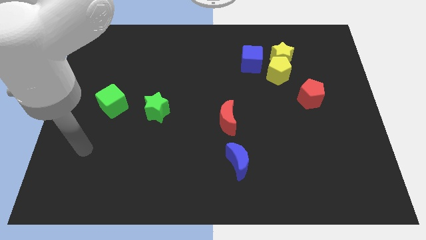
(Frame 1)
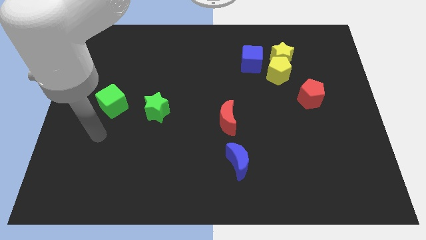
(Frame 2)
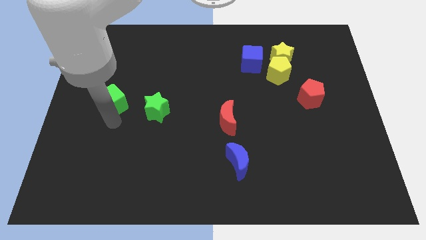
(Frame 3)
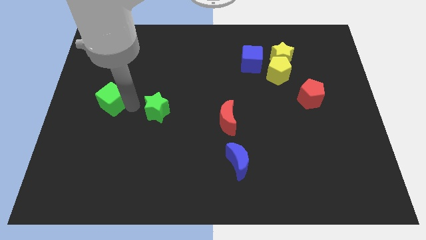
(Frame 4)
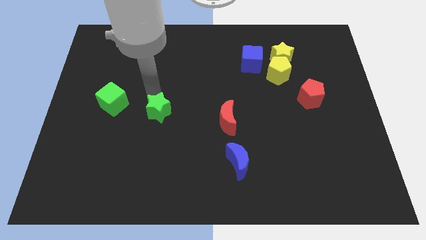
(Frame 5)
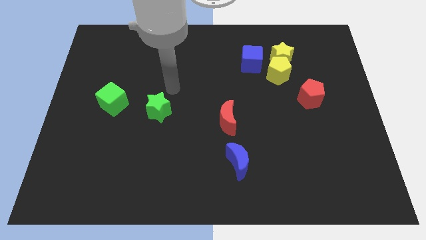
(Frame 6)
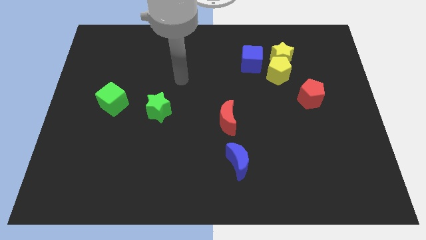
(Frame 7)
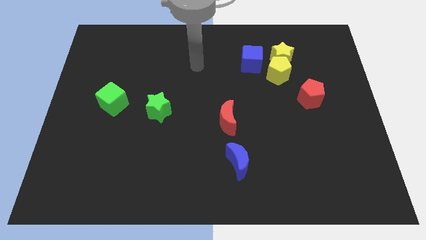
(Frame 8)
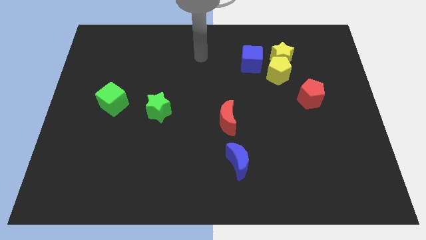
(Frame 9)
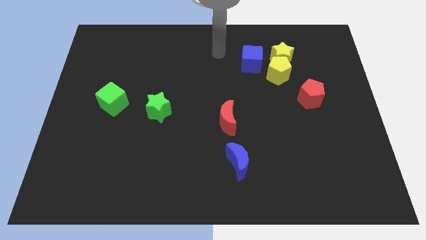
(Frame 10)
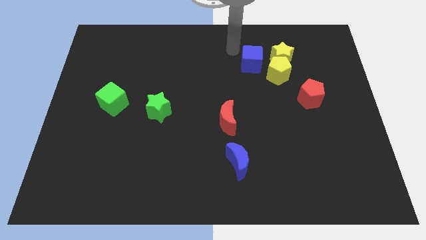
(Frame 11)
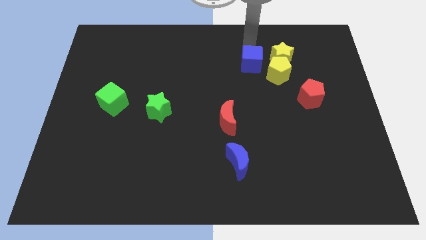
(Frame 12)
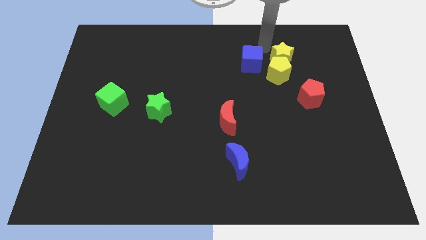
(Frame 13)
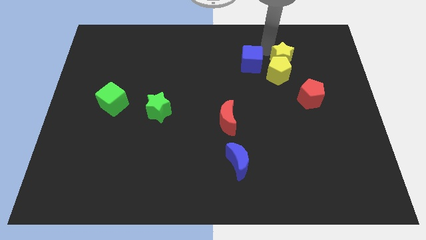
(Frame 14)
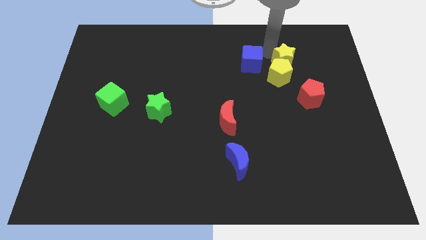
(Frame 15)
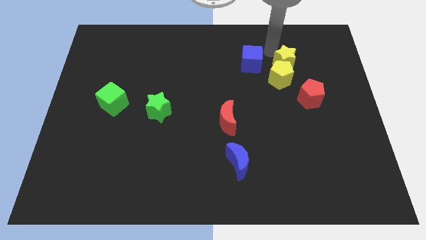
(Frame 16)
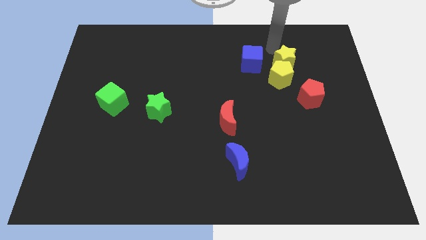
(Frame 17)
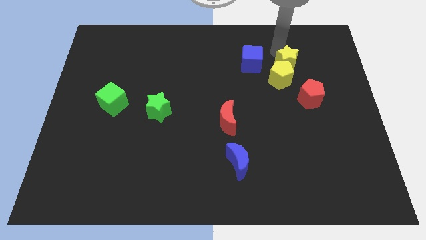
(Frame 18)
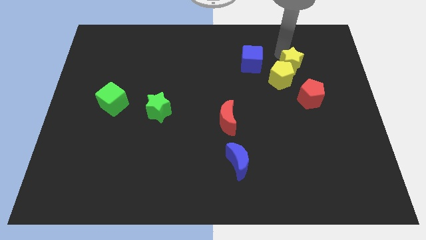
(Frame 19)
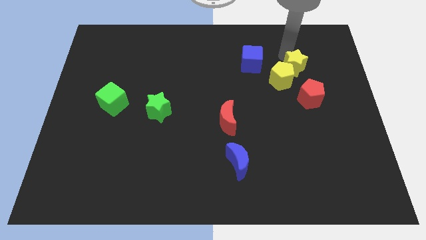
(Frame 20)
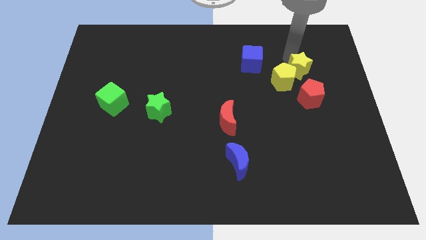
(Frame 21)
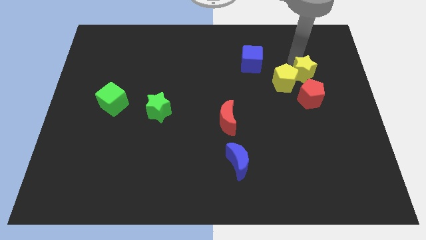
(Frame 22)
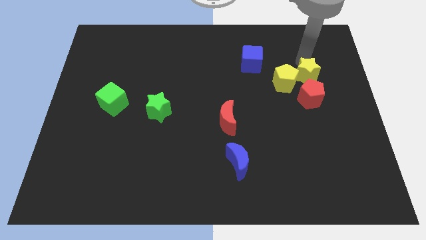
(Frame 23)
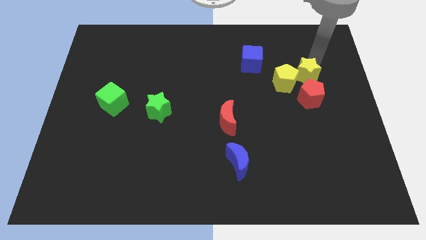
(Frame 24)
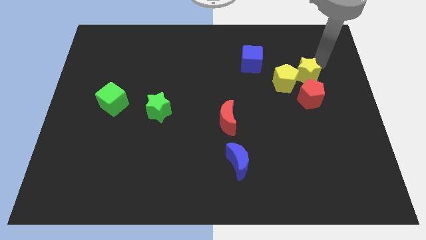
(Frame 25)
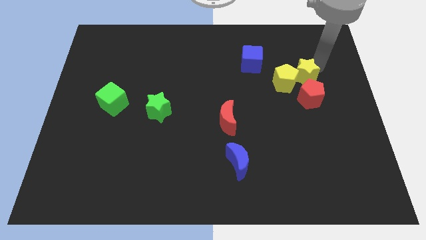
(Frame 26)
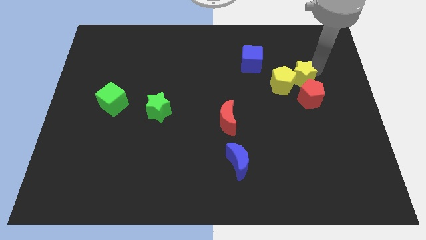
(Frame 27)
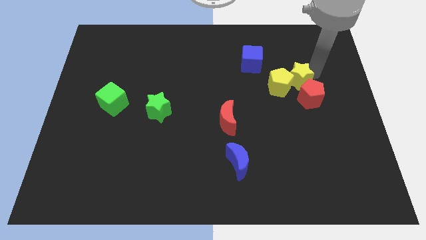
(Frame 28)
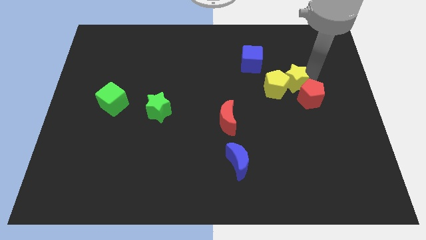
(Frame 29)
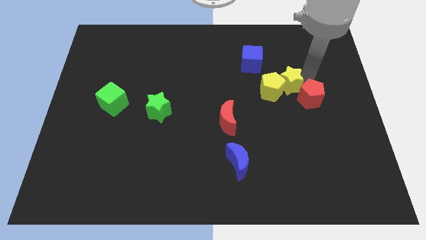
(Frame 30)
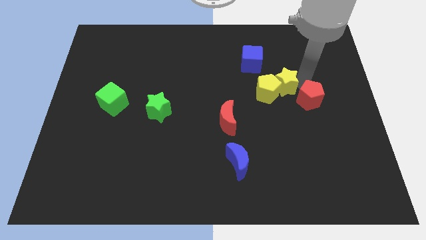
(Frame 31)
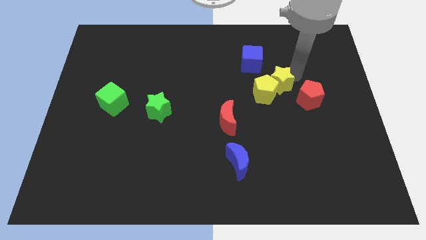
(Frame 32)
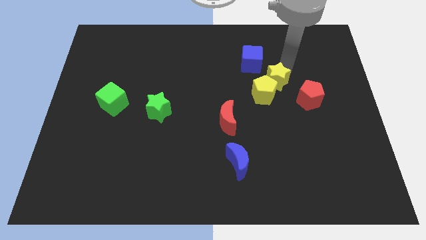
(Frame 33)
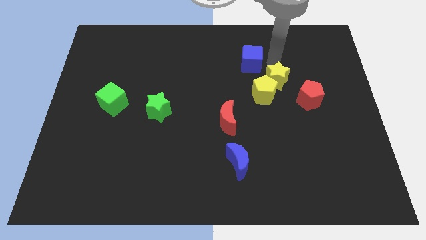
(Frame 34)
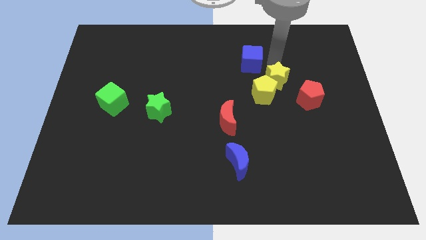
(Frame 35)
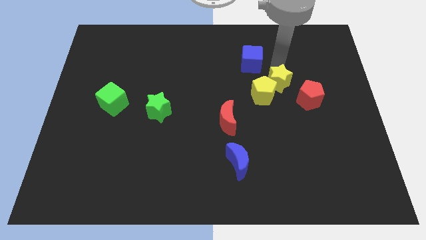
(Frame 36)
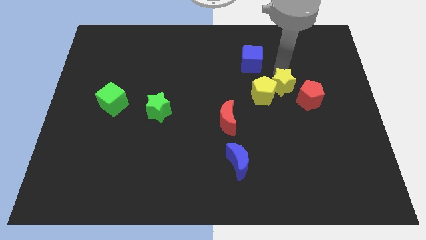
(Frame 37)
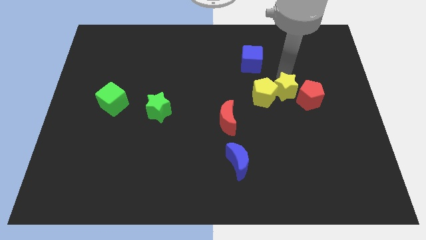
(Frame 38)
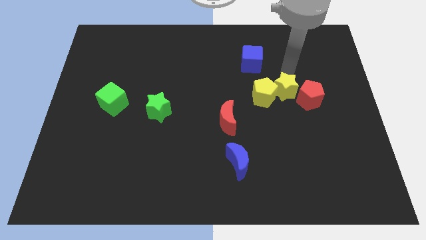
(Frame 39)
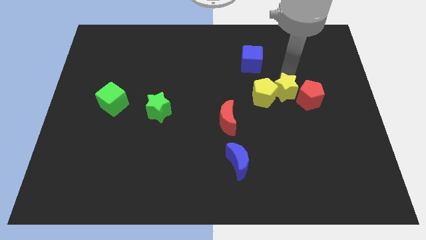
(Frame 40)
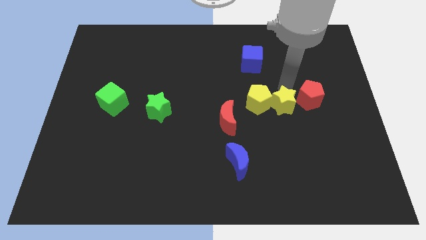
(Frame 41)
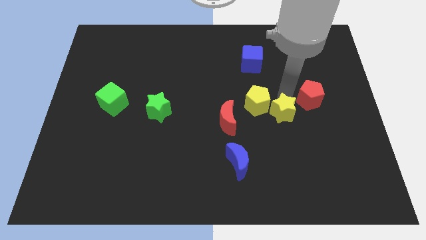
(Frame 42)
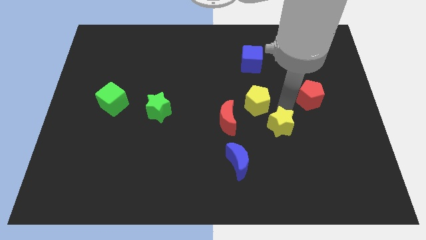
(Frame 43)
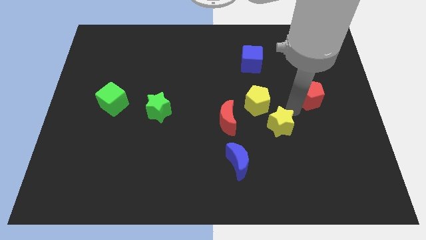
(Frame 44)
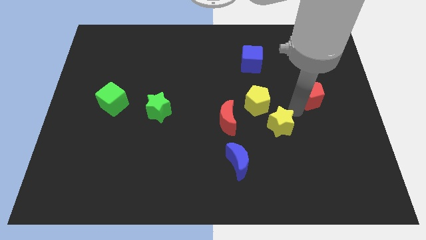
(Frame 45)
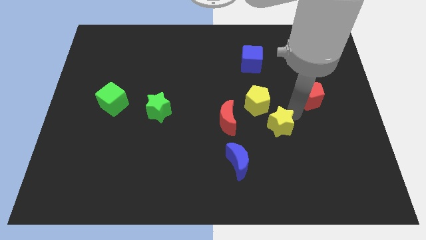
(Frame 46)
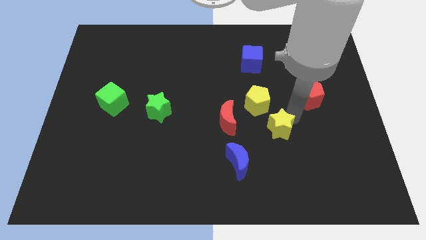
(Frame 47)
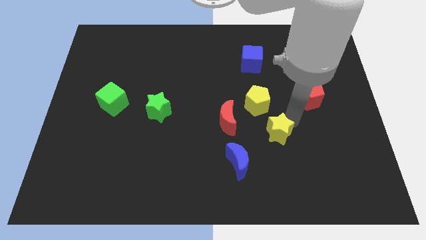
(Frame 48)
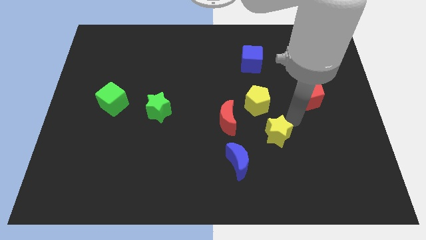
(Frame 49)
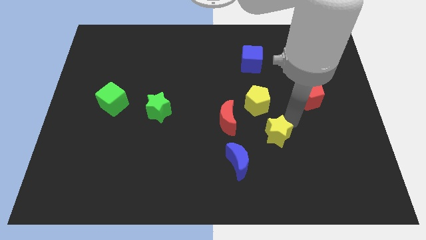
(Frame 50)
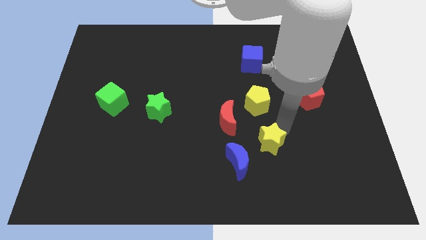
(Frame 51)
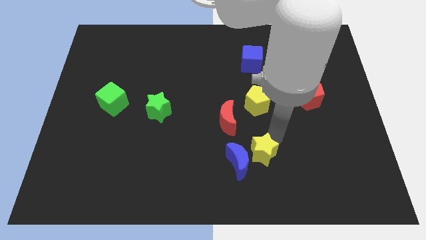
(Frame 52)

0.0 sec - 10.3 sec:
put the yellow star to the blue moon

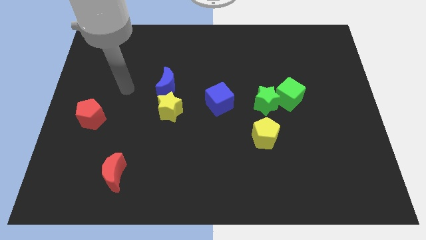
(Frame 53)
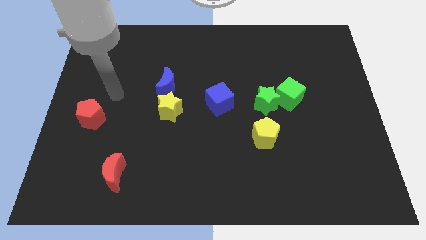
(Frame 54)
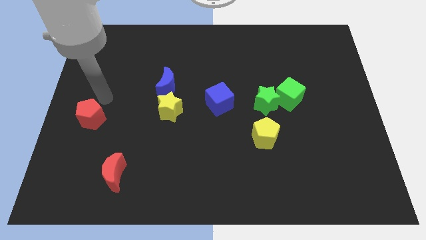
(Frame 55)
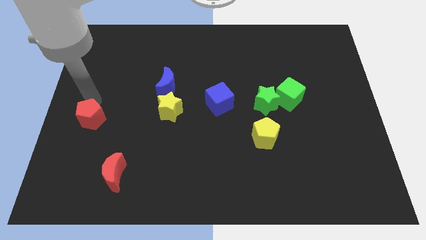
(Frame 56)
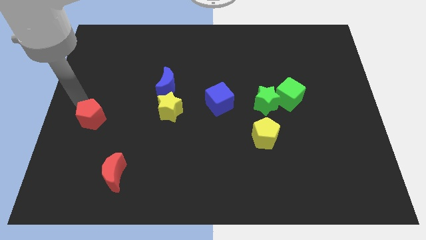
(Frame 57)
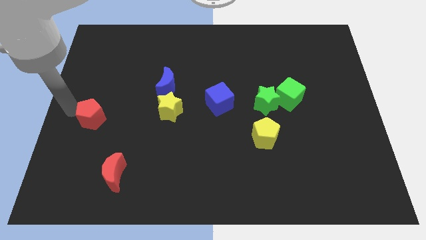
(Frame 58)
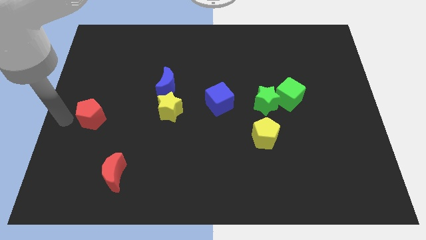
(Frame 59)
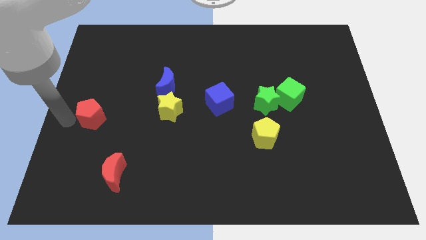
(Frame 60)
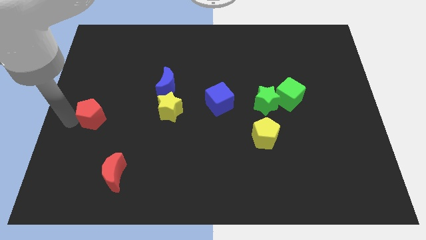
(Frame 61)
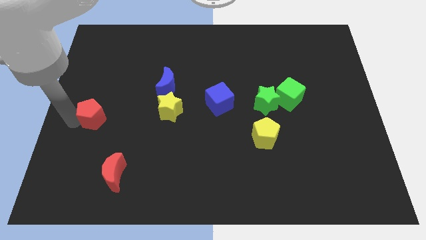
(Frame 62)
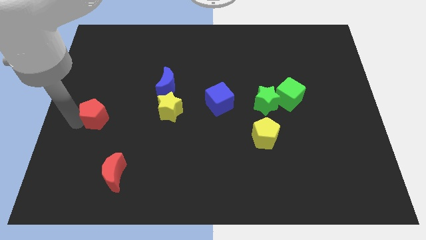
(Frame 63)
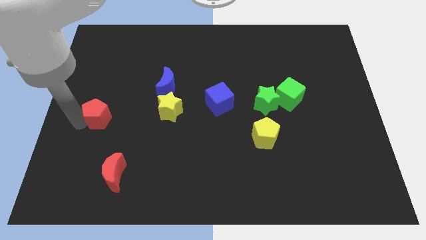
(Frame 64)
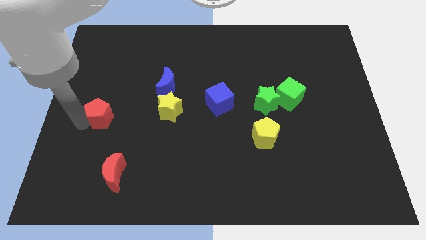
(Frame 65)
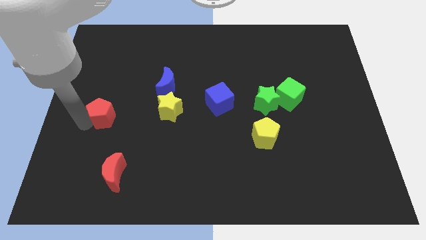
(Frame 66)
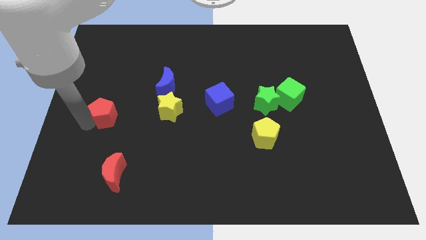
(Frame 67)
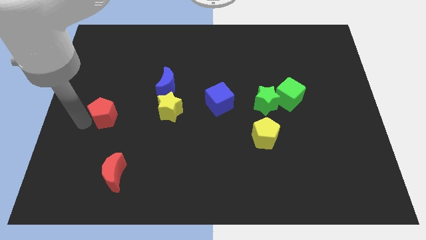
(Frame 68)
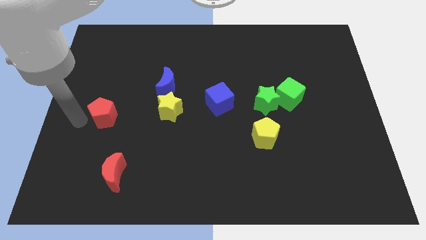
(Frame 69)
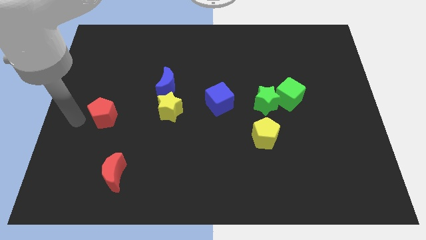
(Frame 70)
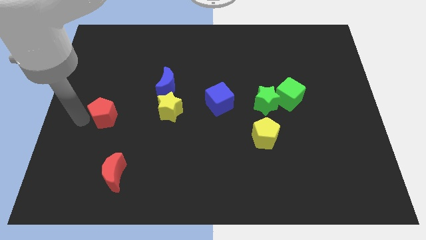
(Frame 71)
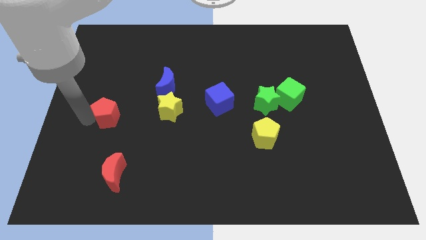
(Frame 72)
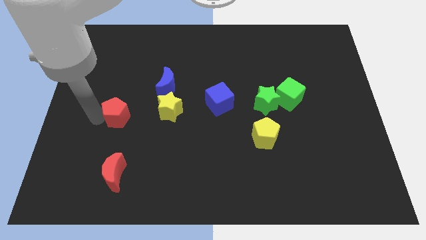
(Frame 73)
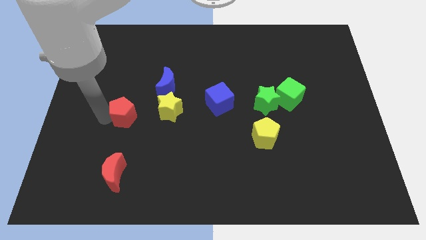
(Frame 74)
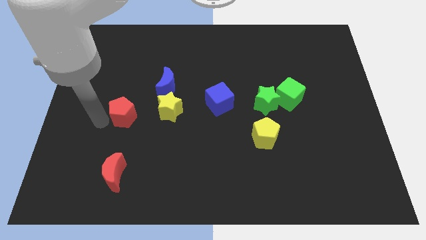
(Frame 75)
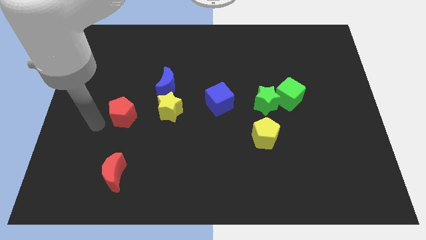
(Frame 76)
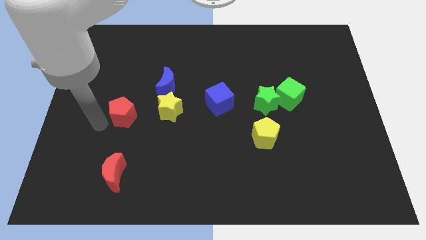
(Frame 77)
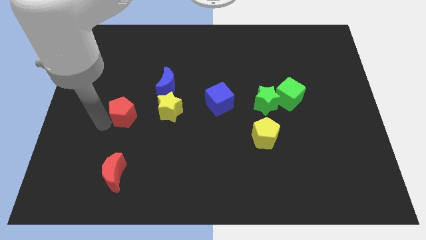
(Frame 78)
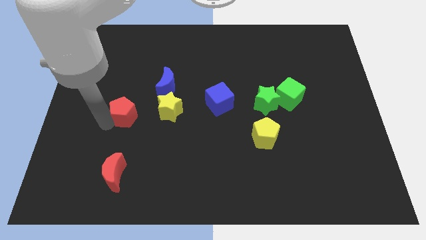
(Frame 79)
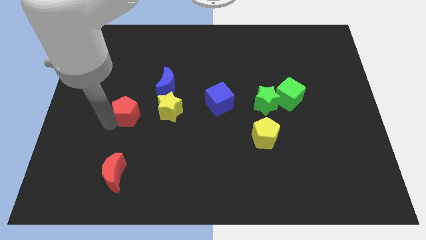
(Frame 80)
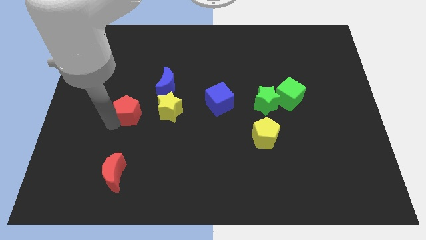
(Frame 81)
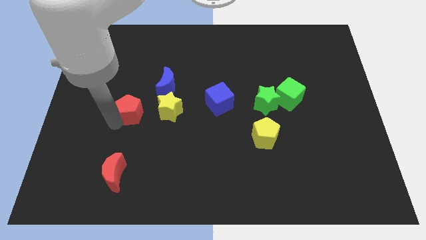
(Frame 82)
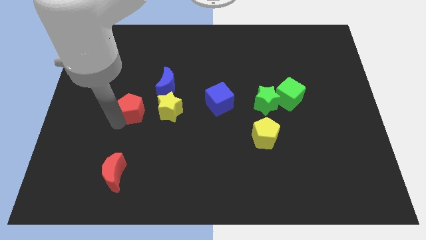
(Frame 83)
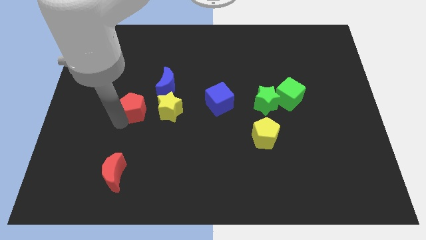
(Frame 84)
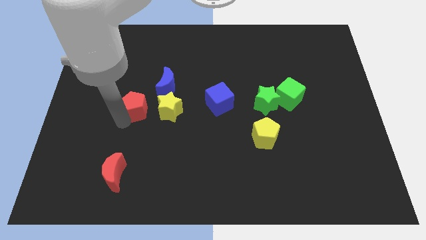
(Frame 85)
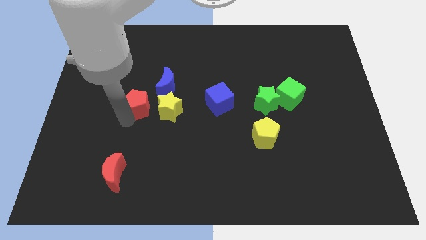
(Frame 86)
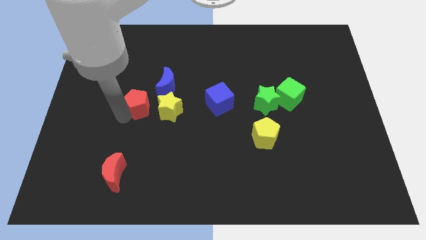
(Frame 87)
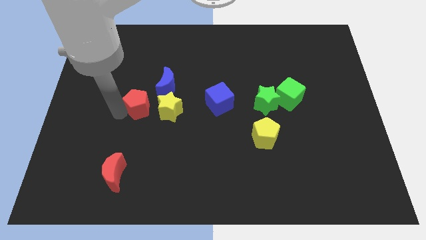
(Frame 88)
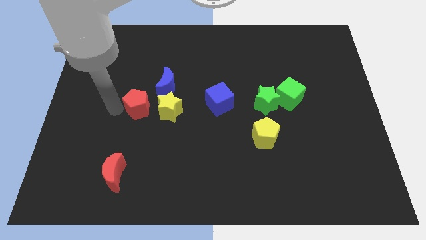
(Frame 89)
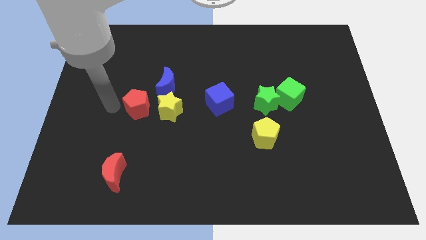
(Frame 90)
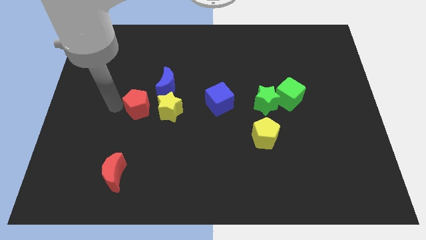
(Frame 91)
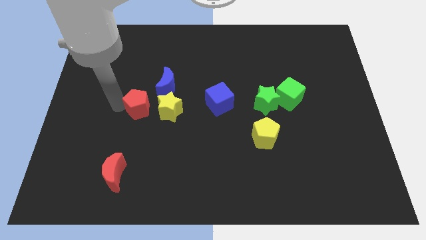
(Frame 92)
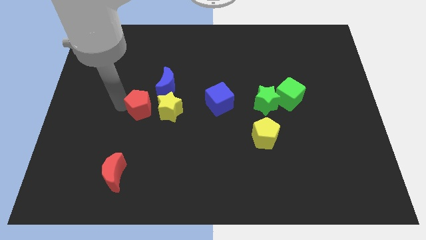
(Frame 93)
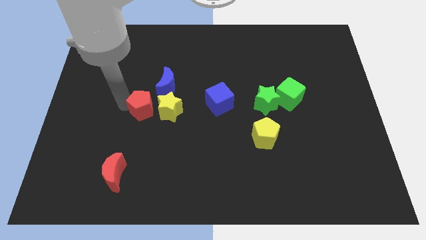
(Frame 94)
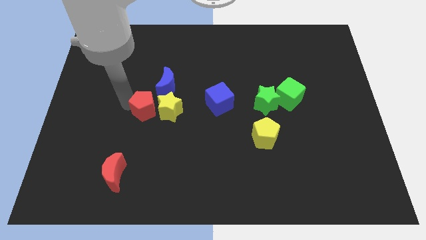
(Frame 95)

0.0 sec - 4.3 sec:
slide the red pentagon towards the yellow star
